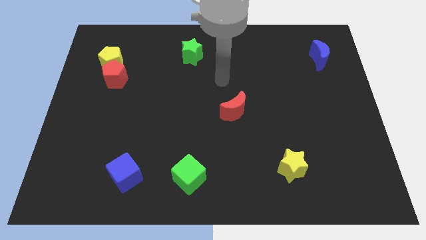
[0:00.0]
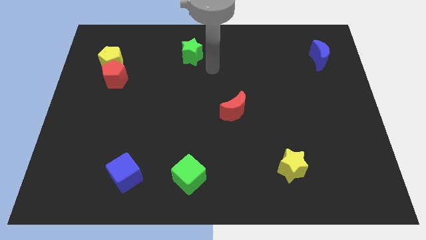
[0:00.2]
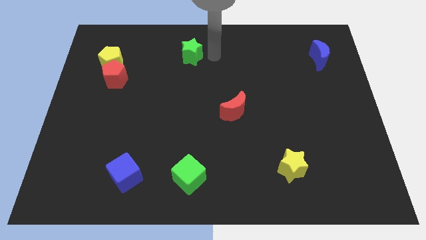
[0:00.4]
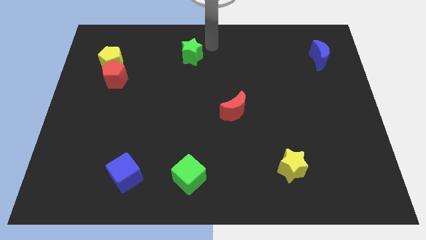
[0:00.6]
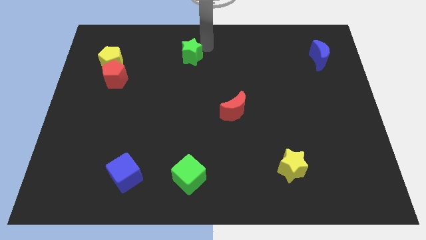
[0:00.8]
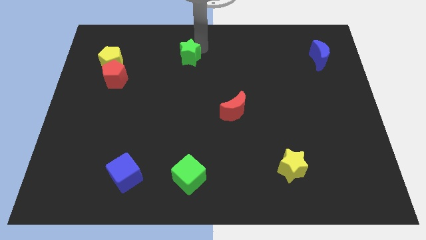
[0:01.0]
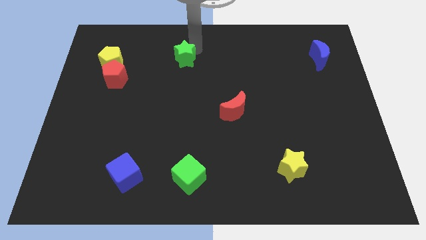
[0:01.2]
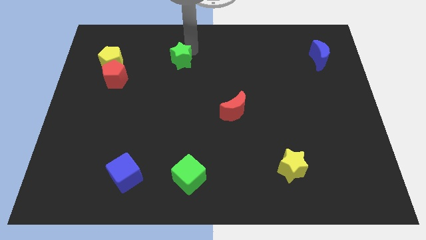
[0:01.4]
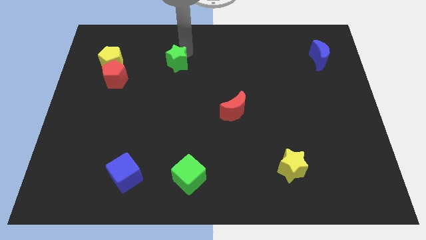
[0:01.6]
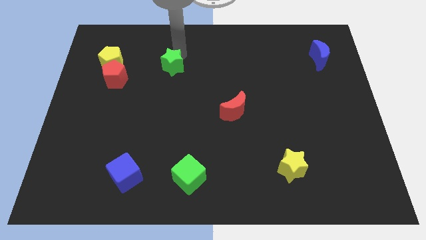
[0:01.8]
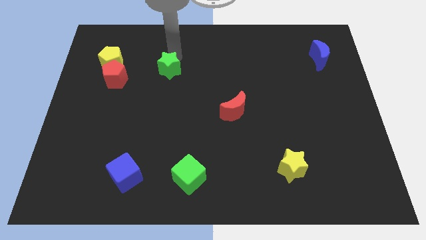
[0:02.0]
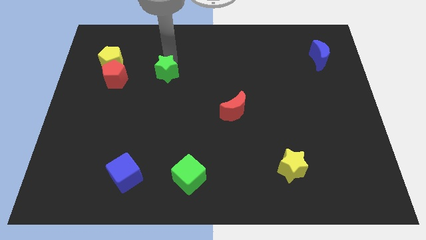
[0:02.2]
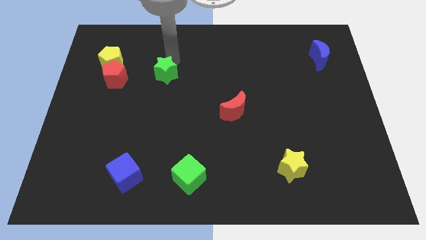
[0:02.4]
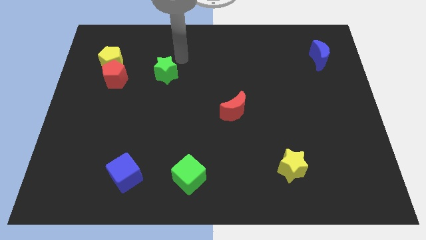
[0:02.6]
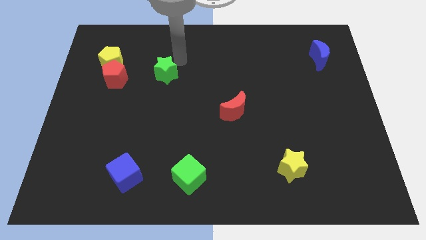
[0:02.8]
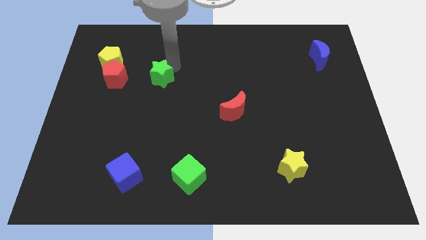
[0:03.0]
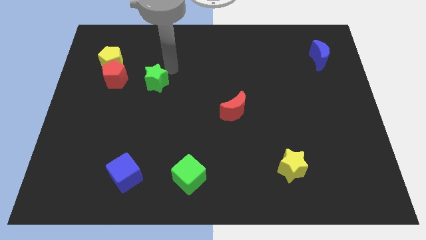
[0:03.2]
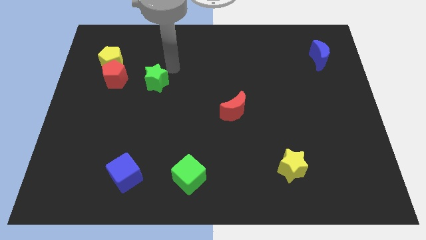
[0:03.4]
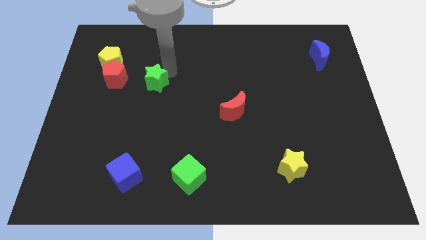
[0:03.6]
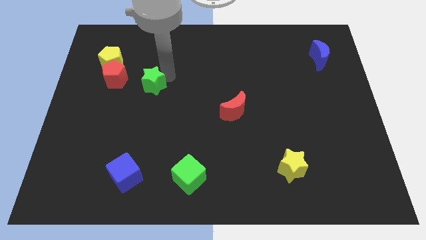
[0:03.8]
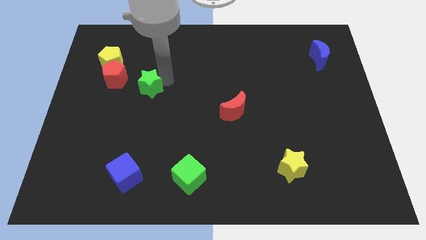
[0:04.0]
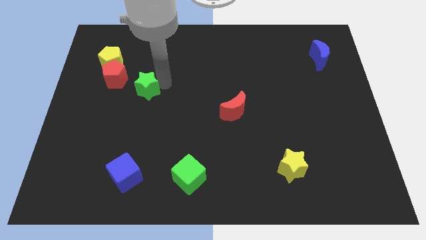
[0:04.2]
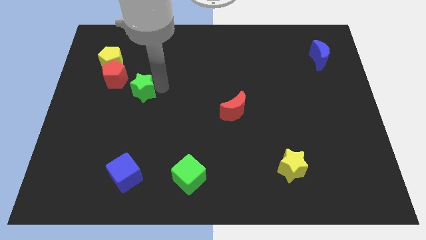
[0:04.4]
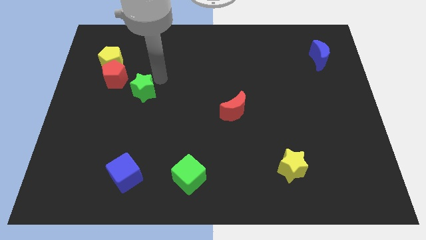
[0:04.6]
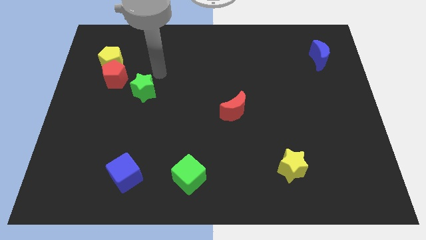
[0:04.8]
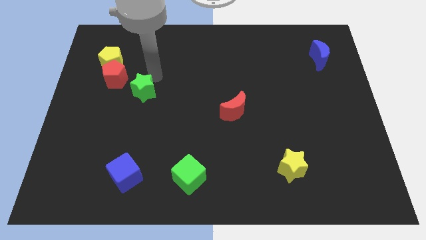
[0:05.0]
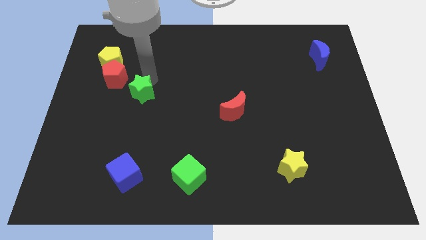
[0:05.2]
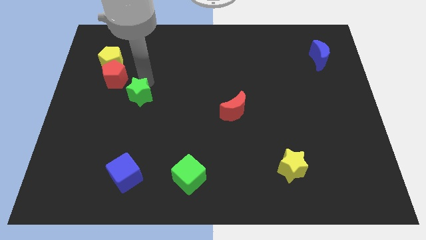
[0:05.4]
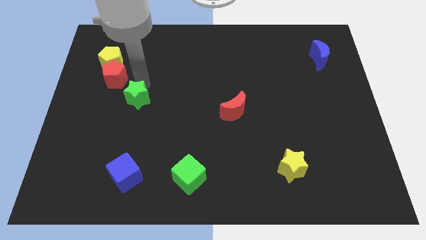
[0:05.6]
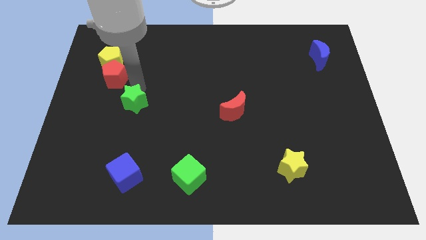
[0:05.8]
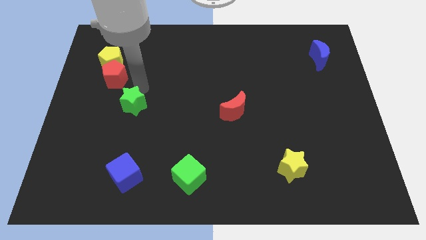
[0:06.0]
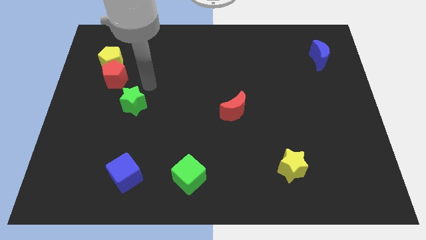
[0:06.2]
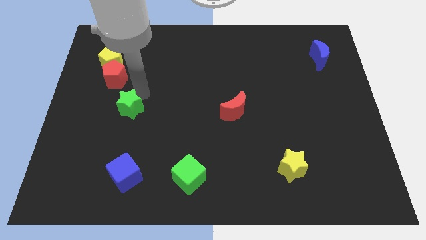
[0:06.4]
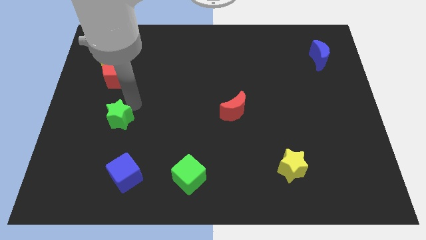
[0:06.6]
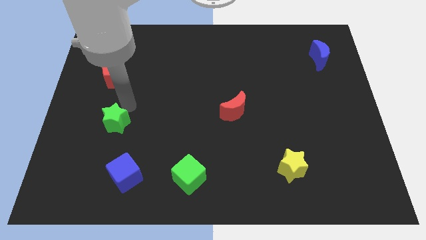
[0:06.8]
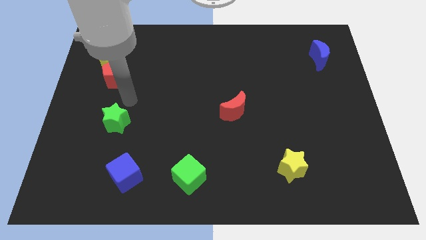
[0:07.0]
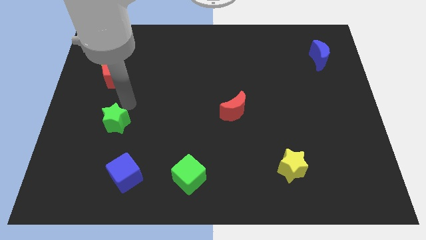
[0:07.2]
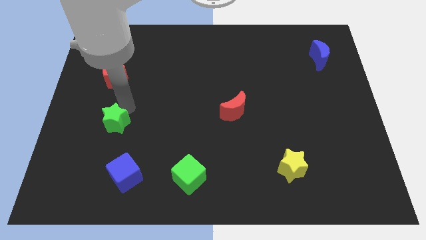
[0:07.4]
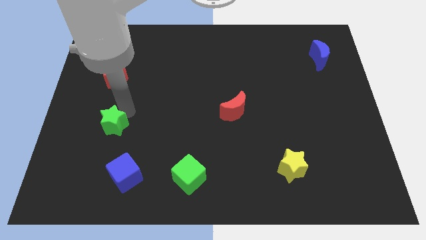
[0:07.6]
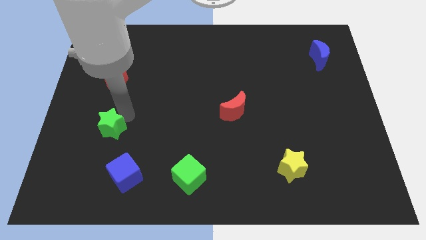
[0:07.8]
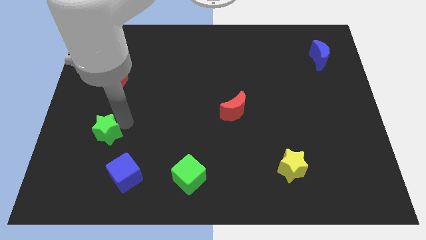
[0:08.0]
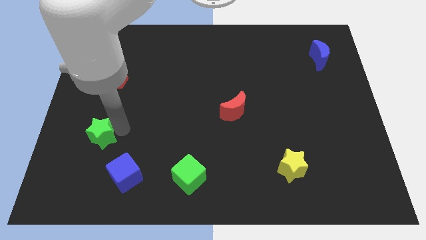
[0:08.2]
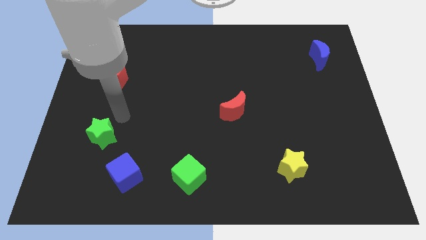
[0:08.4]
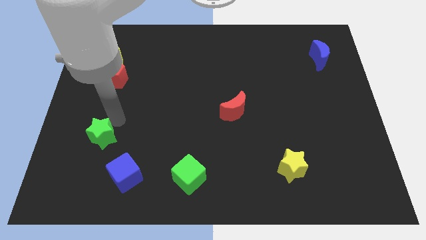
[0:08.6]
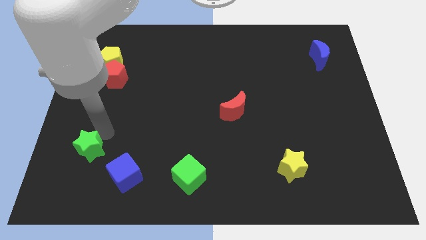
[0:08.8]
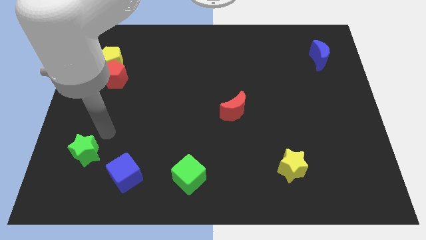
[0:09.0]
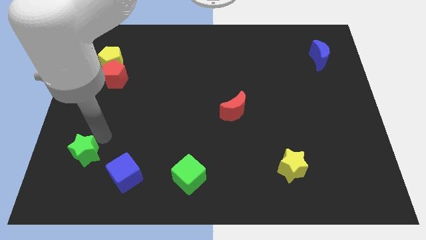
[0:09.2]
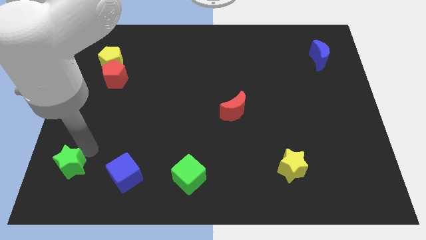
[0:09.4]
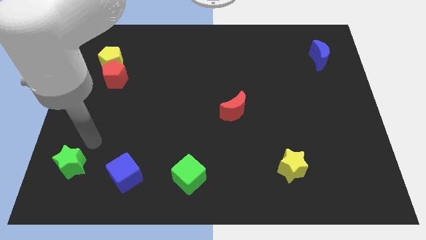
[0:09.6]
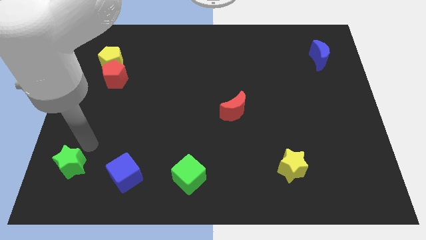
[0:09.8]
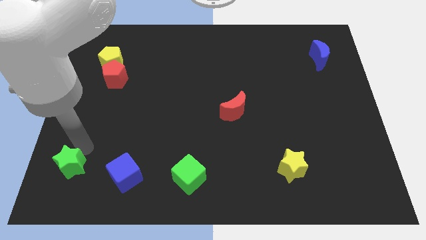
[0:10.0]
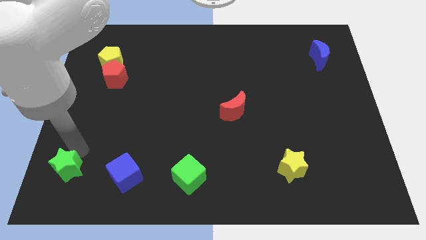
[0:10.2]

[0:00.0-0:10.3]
push the green star to the bottom left of the board

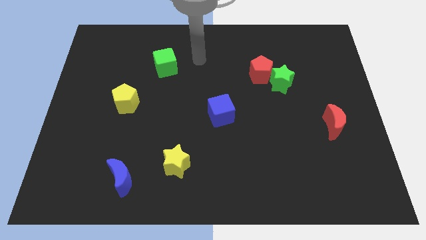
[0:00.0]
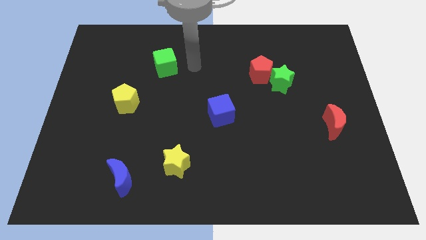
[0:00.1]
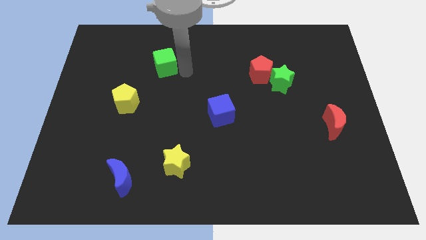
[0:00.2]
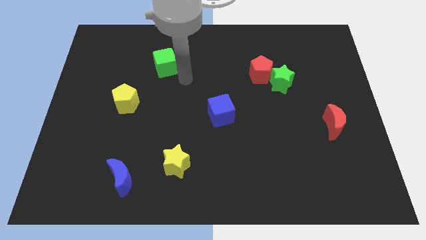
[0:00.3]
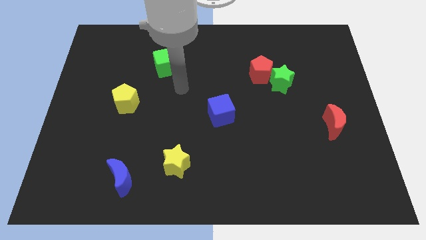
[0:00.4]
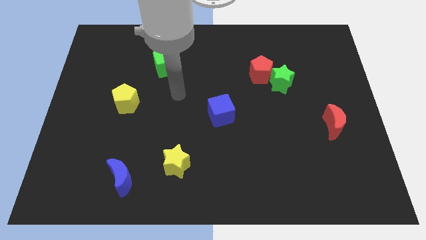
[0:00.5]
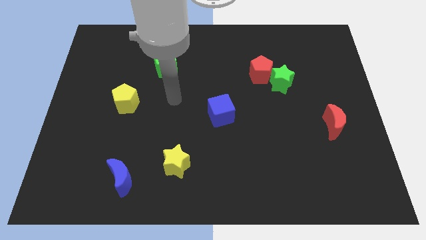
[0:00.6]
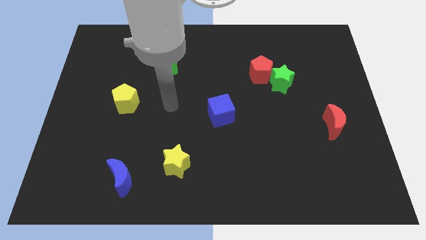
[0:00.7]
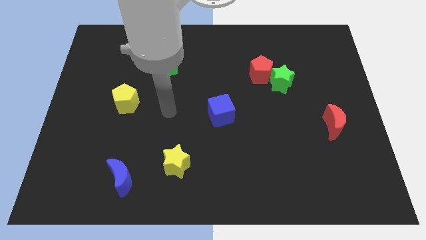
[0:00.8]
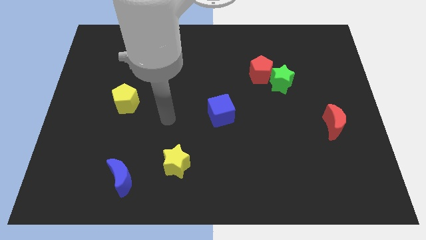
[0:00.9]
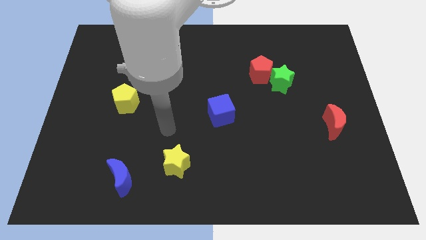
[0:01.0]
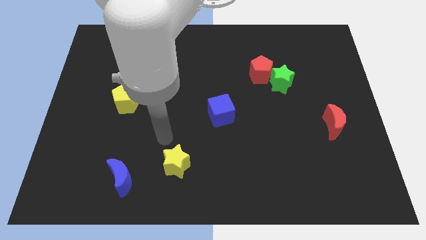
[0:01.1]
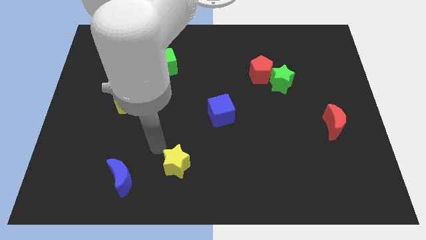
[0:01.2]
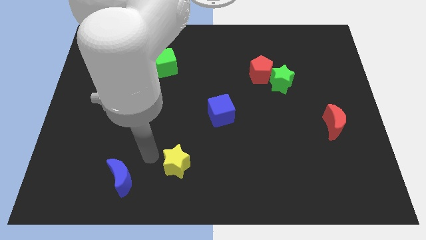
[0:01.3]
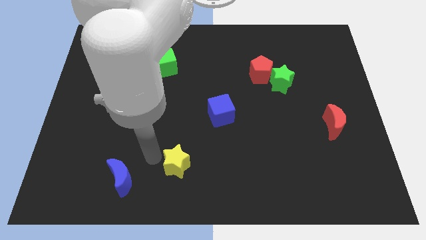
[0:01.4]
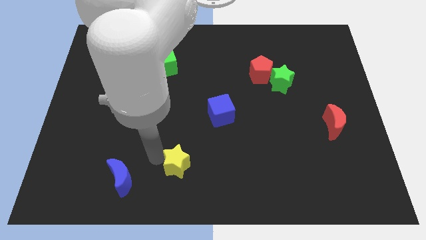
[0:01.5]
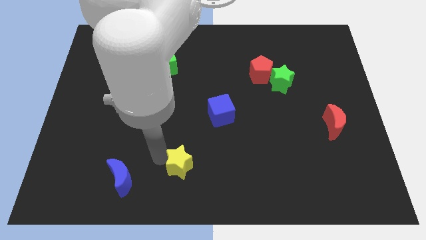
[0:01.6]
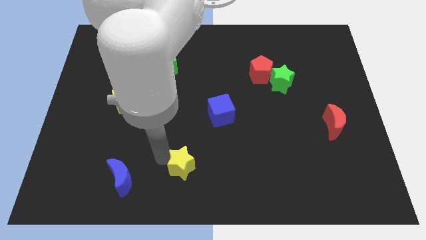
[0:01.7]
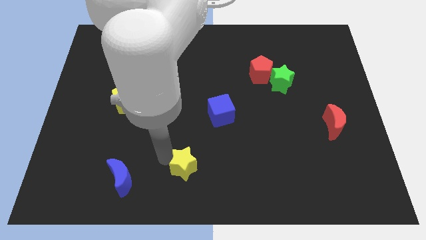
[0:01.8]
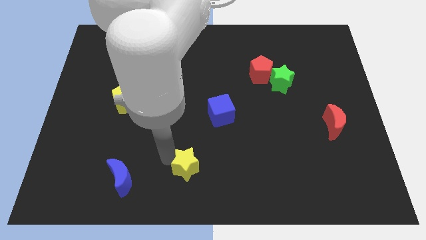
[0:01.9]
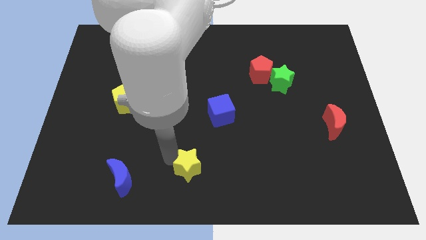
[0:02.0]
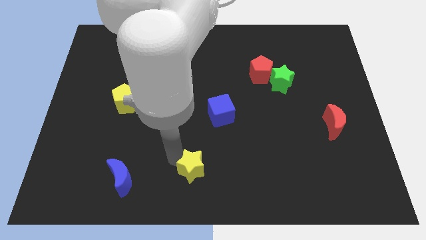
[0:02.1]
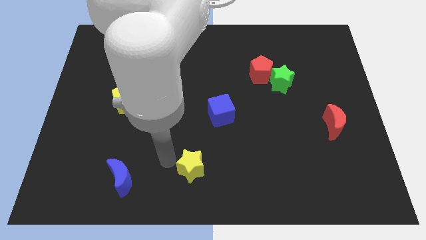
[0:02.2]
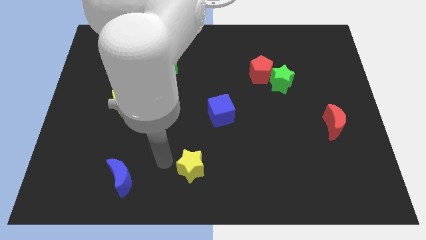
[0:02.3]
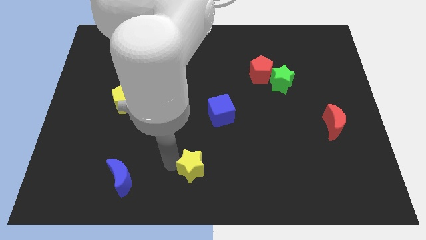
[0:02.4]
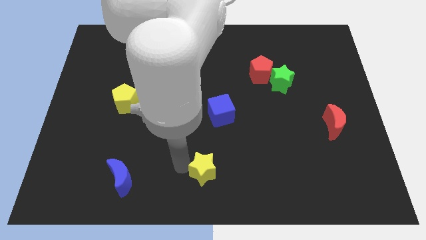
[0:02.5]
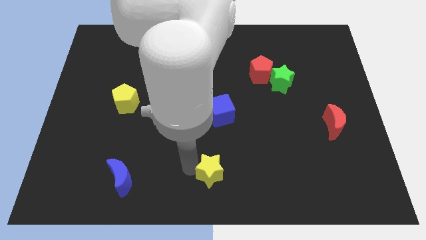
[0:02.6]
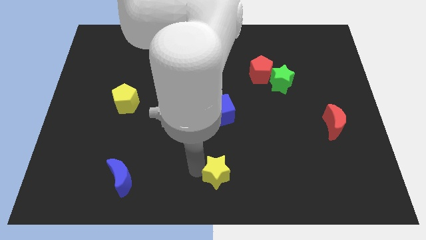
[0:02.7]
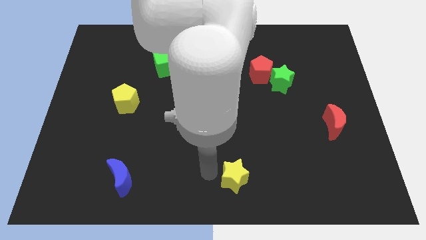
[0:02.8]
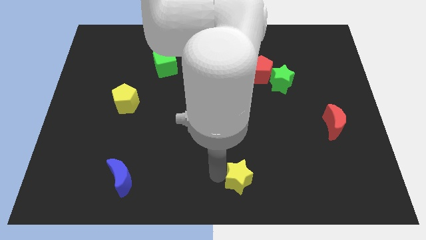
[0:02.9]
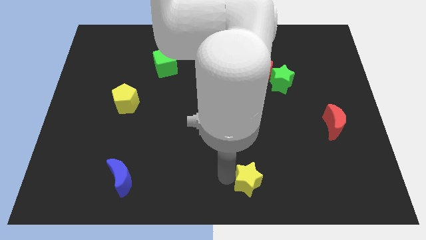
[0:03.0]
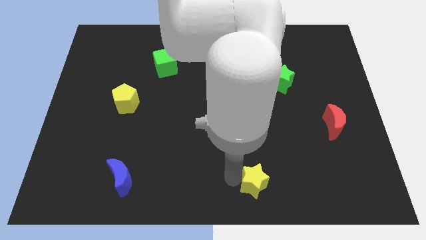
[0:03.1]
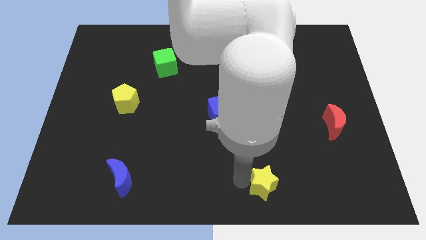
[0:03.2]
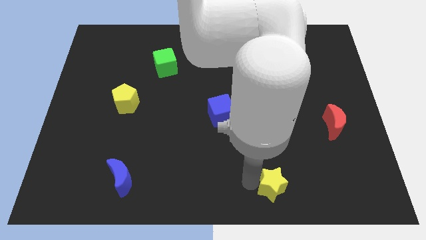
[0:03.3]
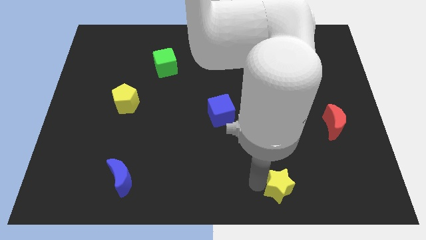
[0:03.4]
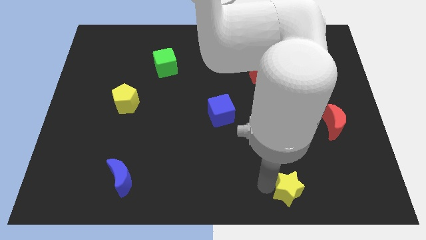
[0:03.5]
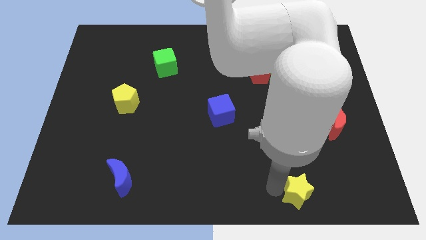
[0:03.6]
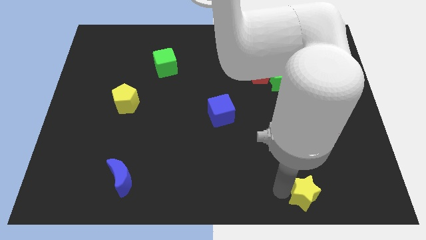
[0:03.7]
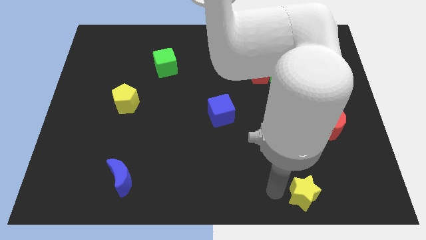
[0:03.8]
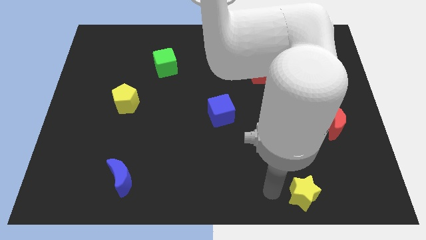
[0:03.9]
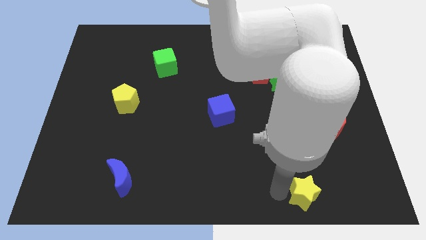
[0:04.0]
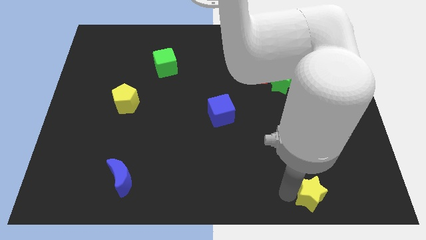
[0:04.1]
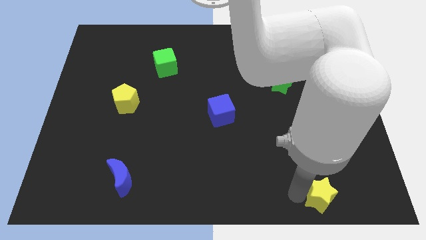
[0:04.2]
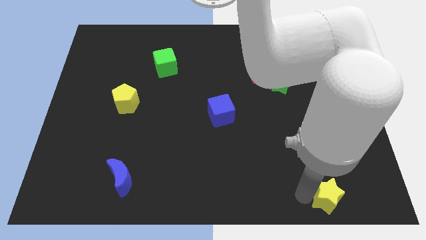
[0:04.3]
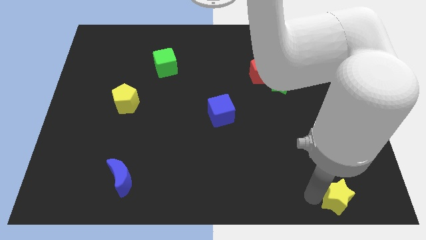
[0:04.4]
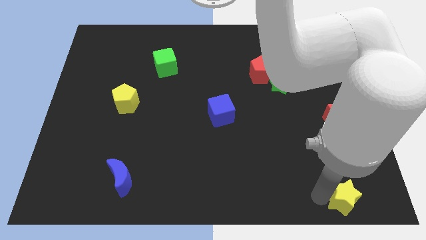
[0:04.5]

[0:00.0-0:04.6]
put the yellow star to the bottom right
